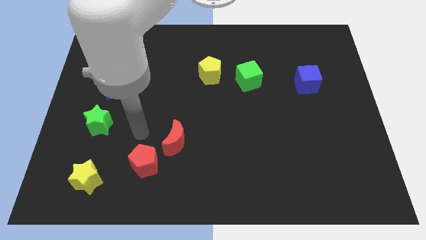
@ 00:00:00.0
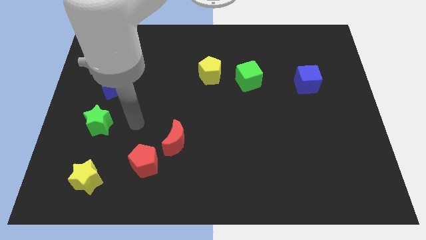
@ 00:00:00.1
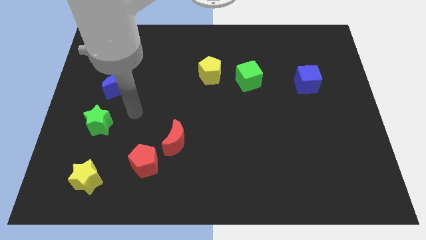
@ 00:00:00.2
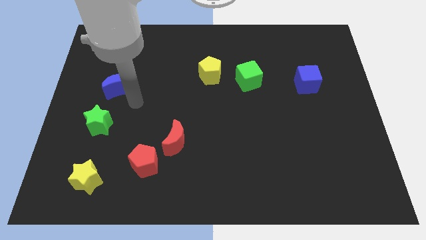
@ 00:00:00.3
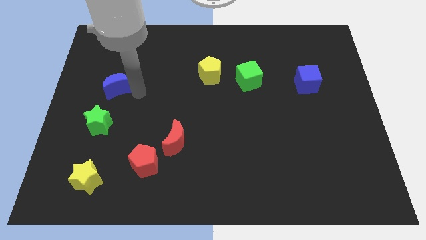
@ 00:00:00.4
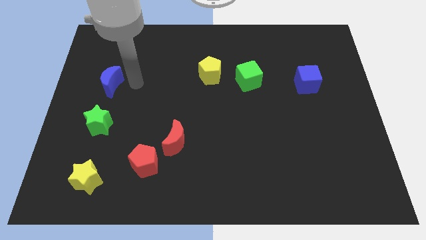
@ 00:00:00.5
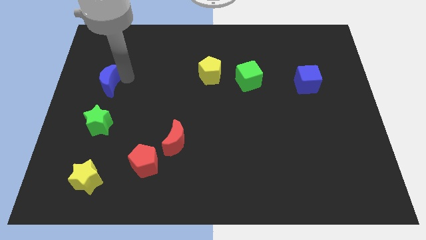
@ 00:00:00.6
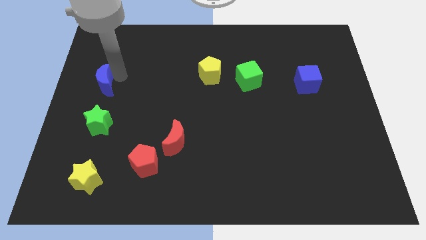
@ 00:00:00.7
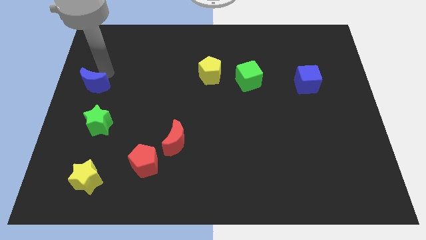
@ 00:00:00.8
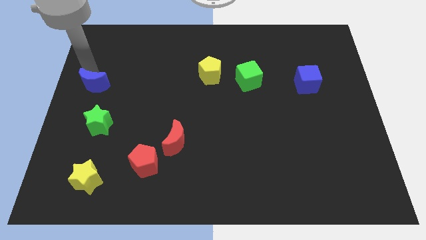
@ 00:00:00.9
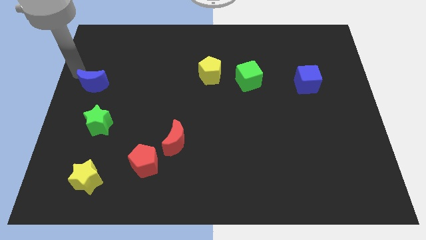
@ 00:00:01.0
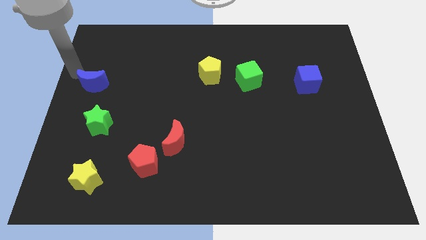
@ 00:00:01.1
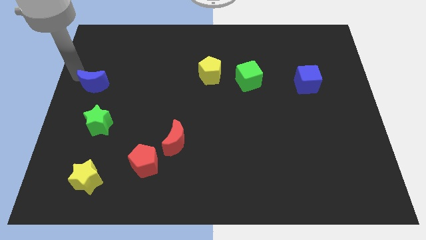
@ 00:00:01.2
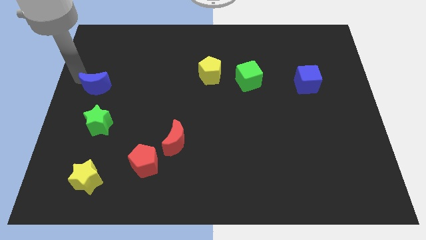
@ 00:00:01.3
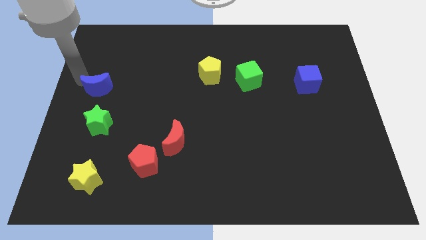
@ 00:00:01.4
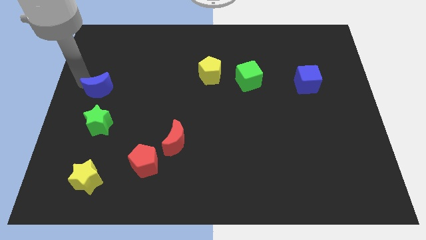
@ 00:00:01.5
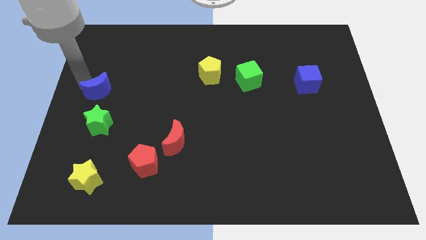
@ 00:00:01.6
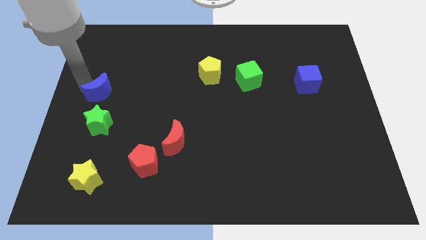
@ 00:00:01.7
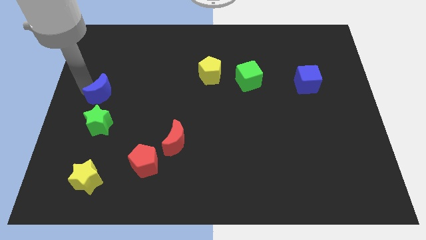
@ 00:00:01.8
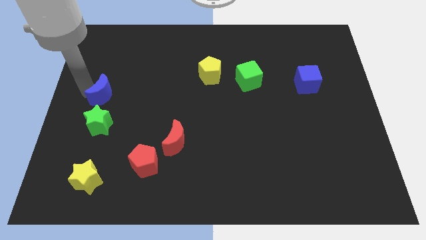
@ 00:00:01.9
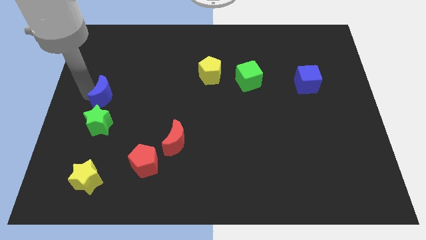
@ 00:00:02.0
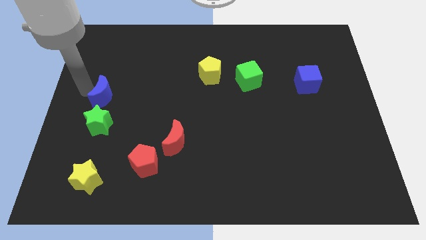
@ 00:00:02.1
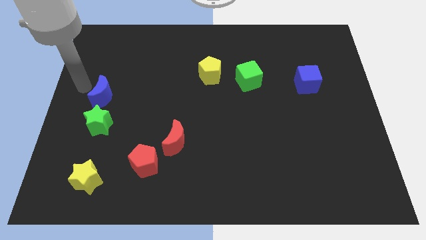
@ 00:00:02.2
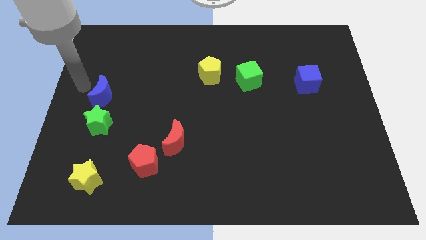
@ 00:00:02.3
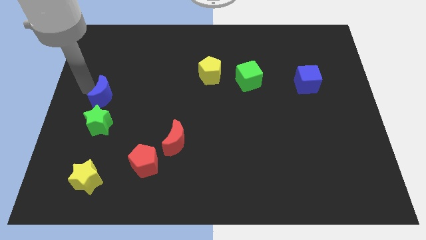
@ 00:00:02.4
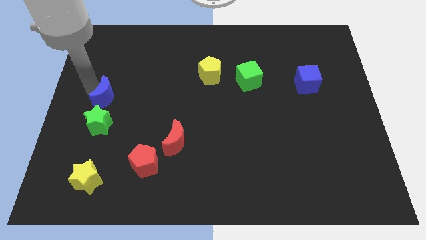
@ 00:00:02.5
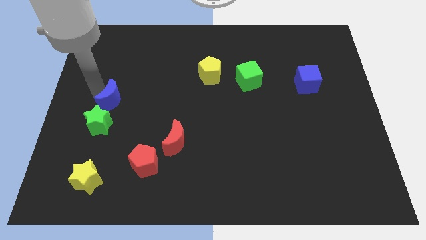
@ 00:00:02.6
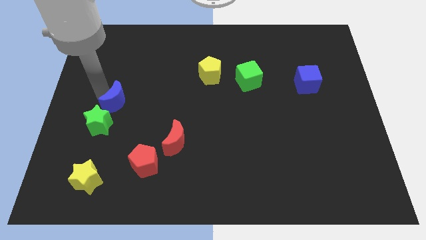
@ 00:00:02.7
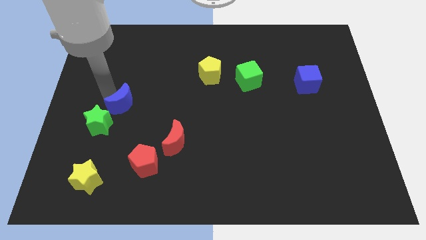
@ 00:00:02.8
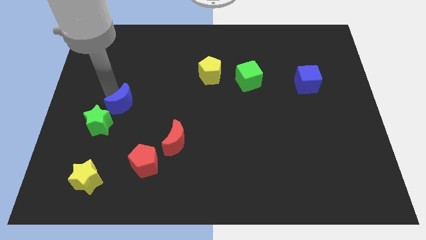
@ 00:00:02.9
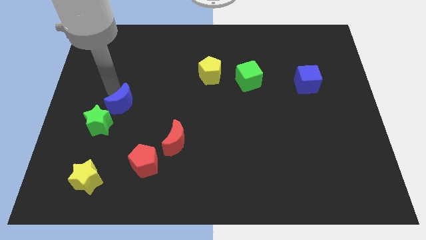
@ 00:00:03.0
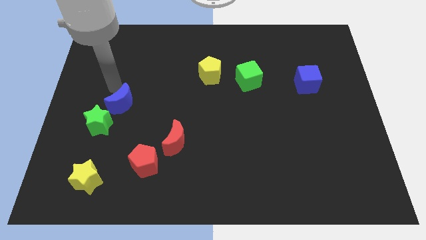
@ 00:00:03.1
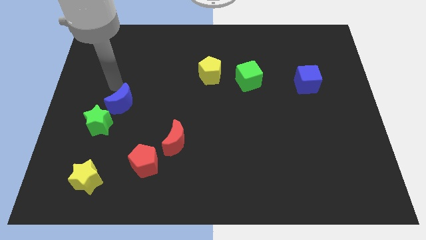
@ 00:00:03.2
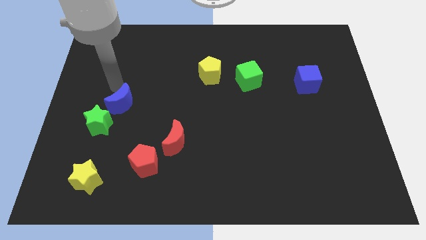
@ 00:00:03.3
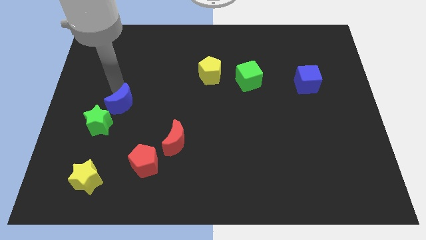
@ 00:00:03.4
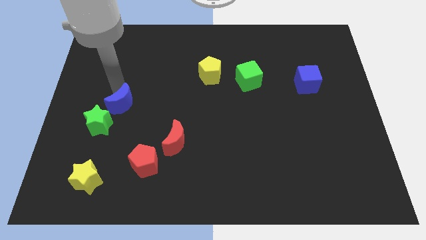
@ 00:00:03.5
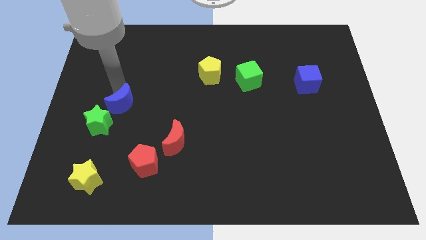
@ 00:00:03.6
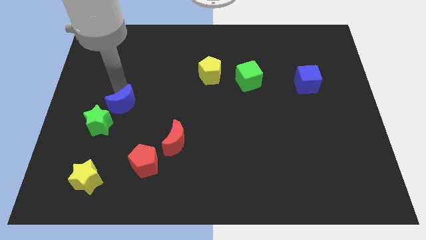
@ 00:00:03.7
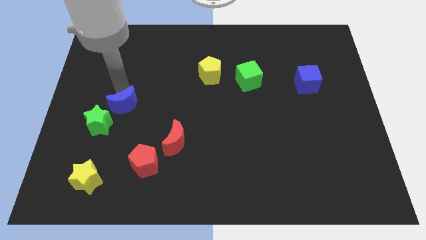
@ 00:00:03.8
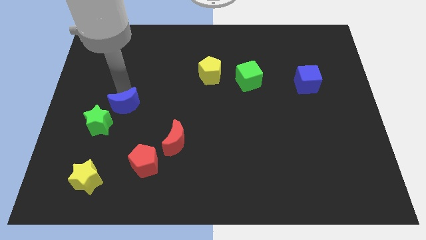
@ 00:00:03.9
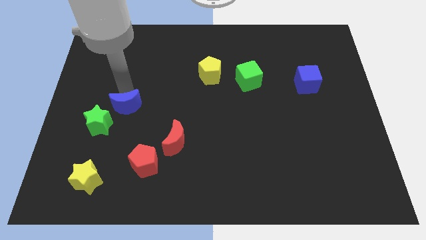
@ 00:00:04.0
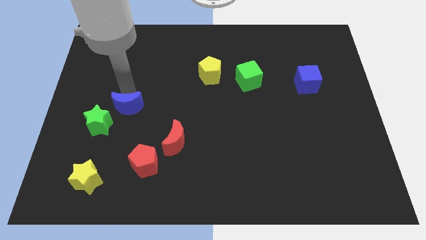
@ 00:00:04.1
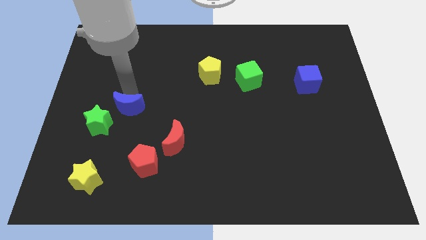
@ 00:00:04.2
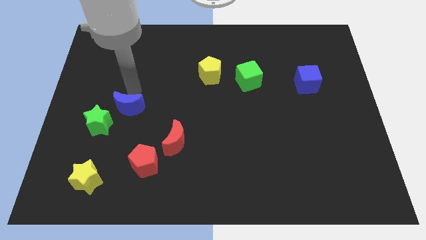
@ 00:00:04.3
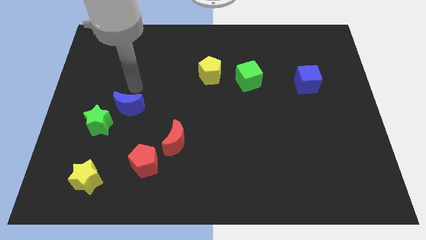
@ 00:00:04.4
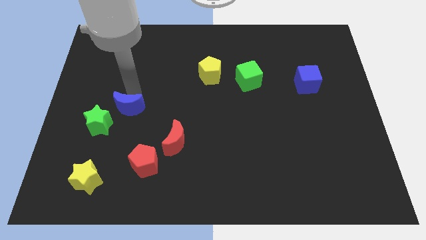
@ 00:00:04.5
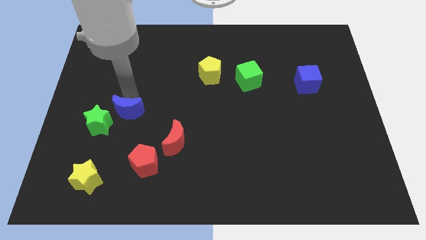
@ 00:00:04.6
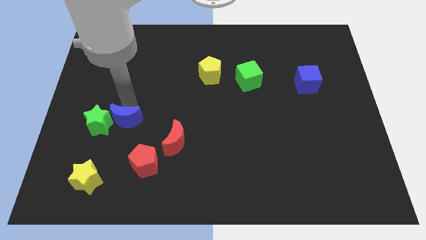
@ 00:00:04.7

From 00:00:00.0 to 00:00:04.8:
slightly move the blue moon downwards

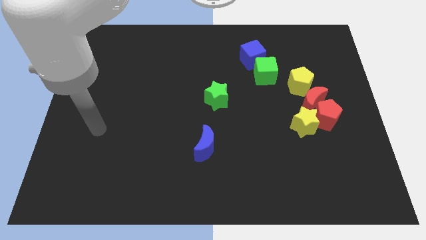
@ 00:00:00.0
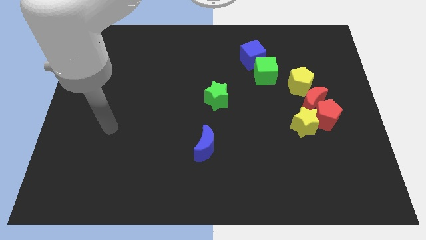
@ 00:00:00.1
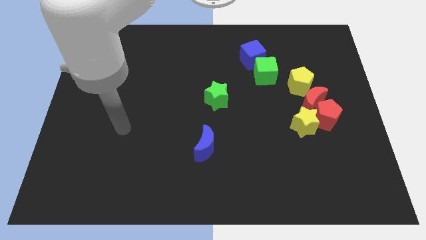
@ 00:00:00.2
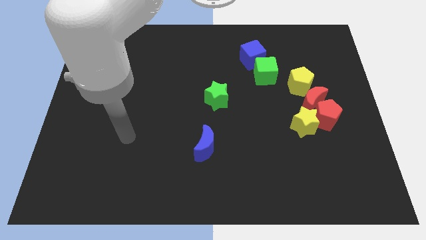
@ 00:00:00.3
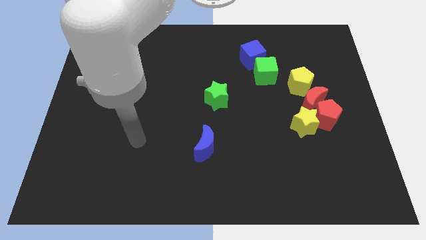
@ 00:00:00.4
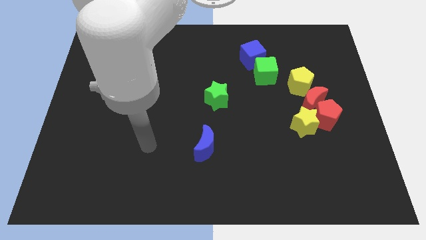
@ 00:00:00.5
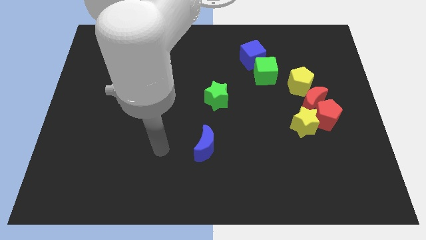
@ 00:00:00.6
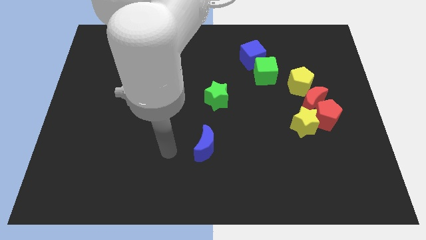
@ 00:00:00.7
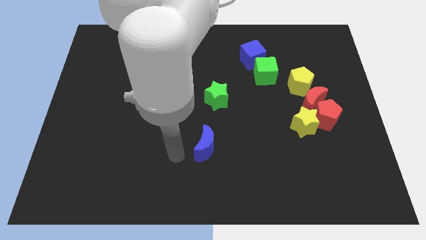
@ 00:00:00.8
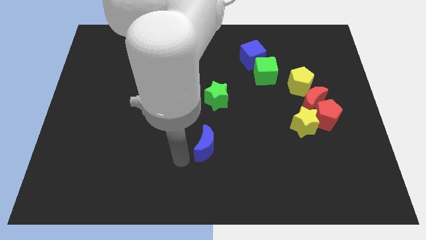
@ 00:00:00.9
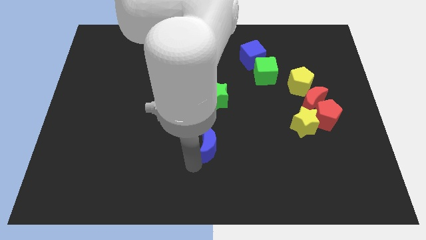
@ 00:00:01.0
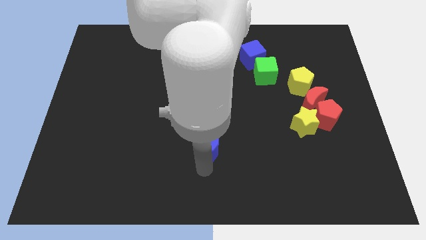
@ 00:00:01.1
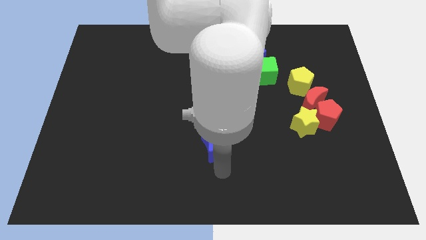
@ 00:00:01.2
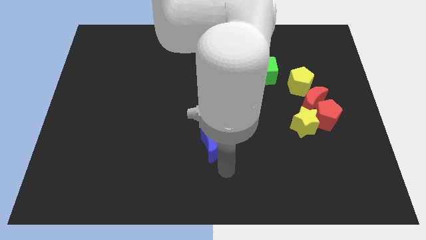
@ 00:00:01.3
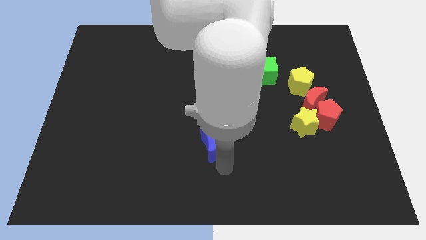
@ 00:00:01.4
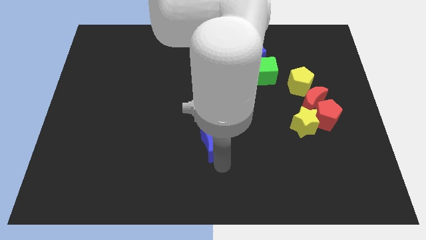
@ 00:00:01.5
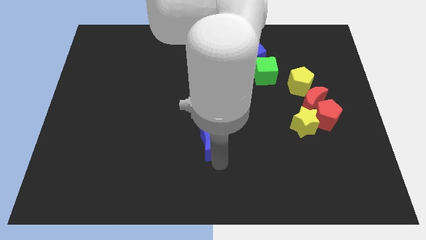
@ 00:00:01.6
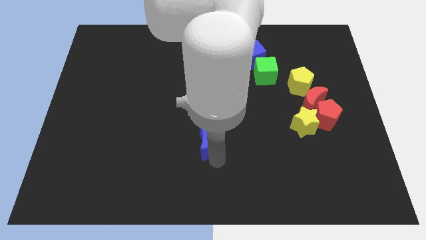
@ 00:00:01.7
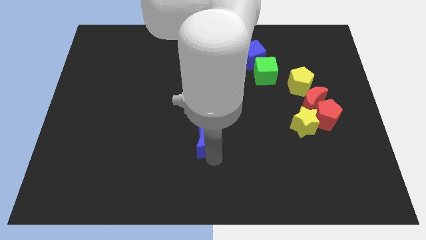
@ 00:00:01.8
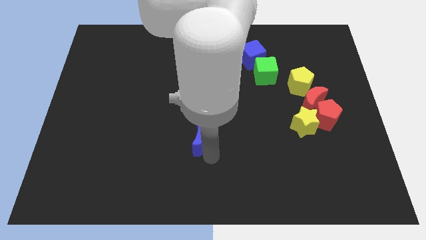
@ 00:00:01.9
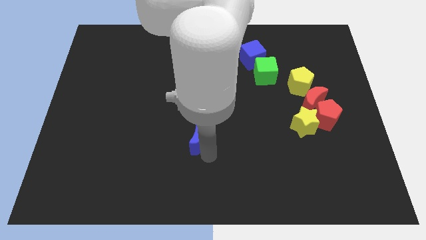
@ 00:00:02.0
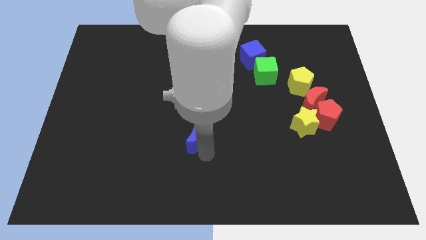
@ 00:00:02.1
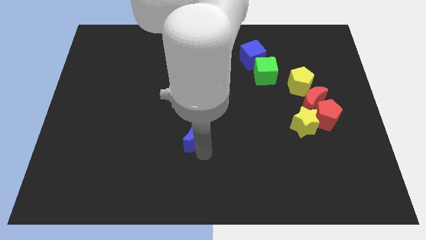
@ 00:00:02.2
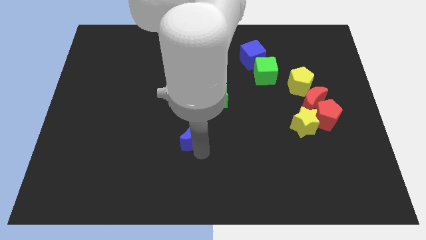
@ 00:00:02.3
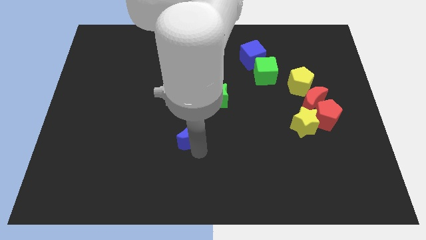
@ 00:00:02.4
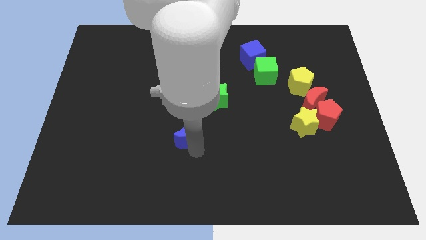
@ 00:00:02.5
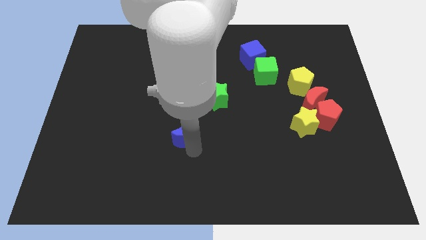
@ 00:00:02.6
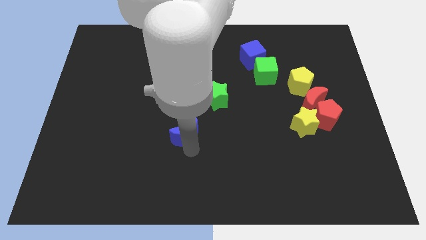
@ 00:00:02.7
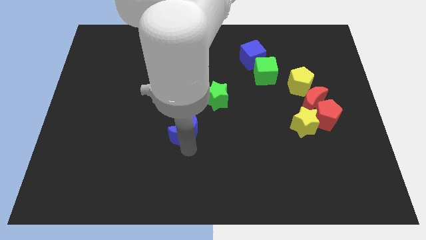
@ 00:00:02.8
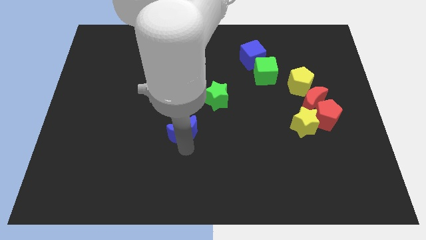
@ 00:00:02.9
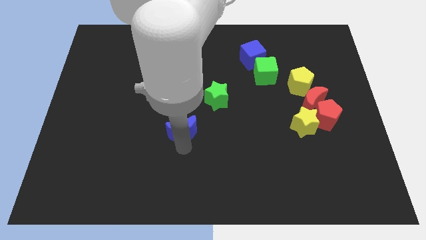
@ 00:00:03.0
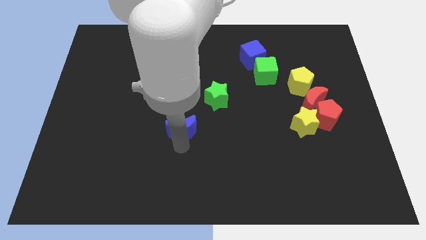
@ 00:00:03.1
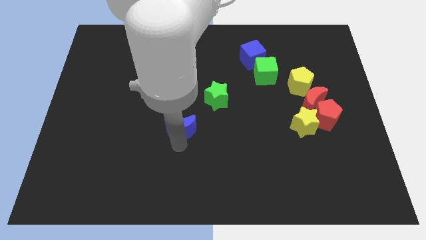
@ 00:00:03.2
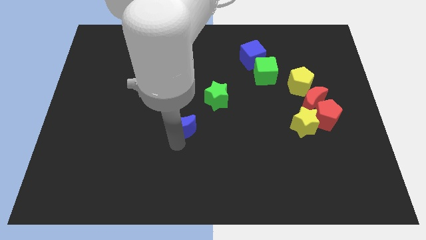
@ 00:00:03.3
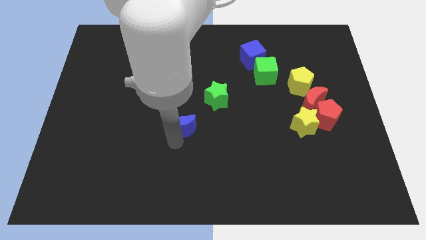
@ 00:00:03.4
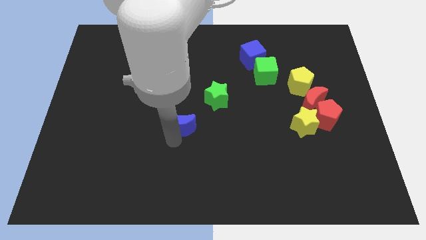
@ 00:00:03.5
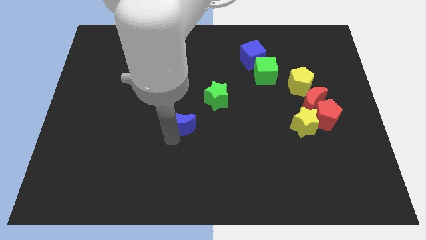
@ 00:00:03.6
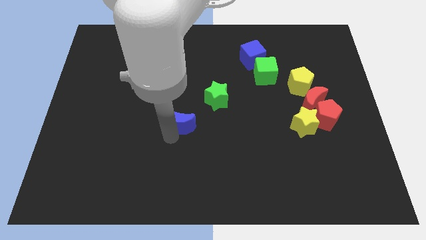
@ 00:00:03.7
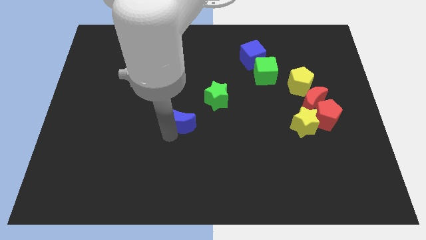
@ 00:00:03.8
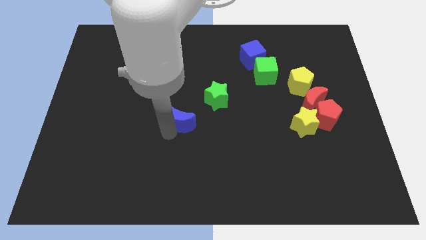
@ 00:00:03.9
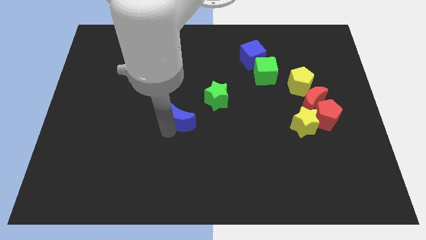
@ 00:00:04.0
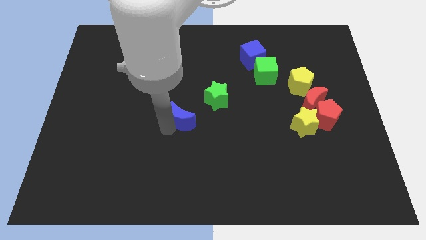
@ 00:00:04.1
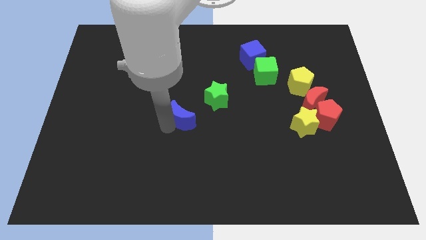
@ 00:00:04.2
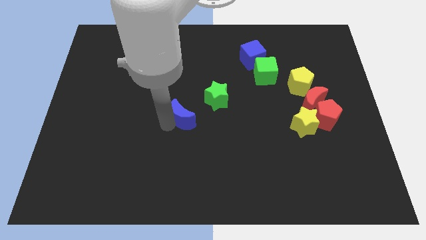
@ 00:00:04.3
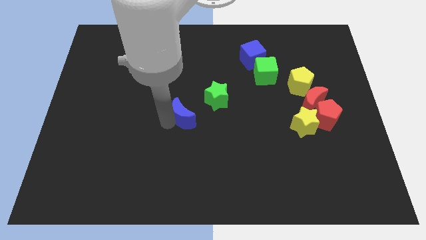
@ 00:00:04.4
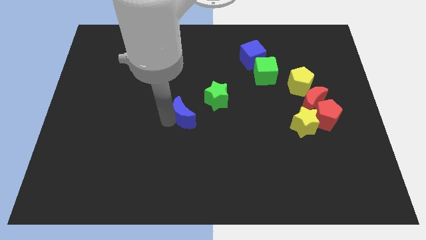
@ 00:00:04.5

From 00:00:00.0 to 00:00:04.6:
slightly move the blue moon upwards
